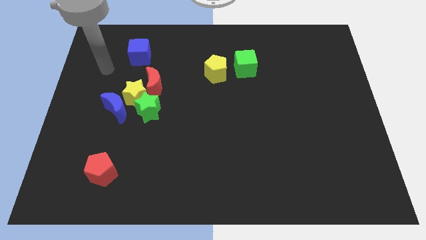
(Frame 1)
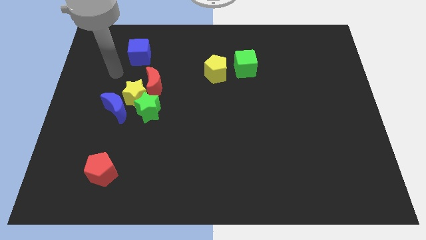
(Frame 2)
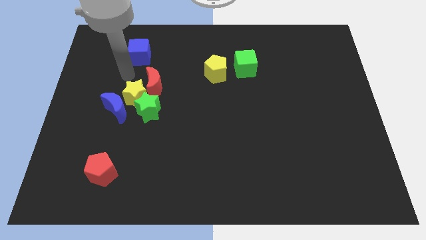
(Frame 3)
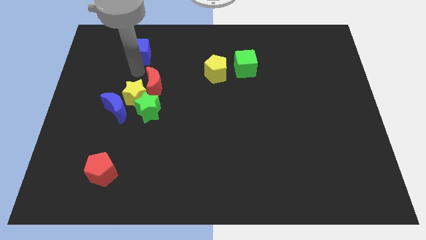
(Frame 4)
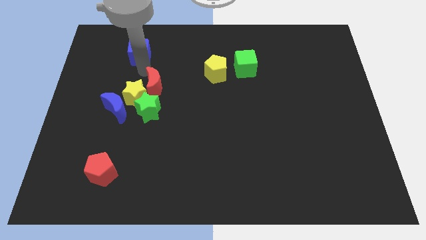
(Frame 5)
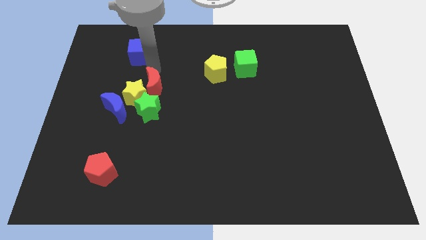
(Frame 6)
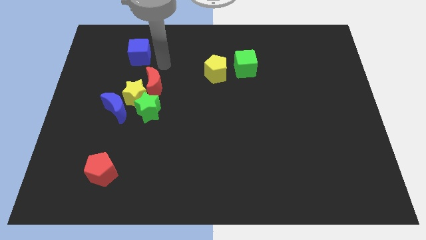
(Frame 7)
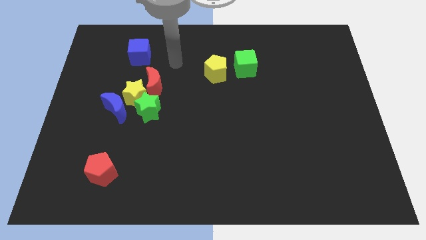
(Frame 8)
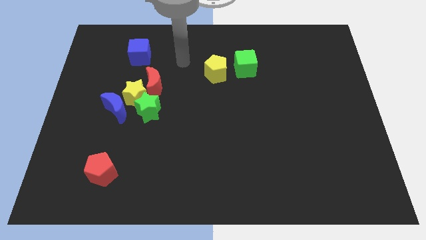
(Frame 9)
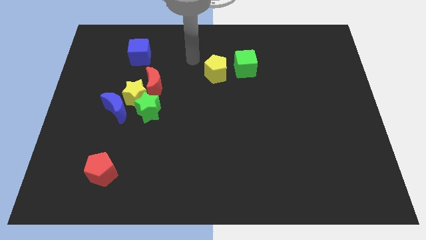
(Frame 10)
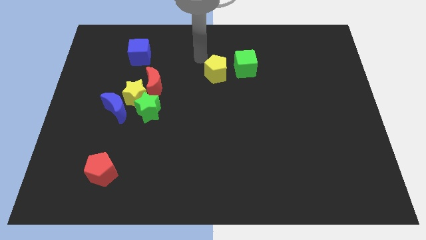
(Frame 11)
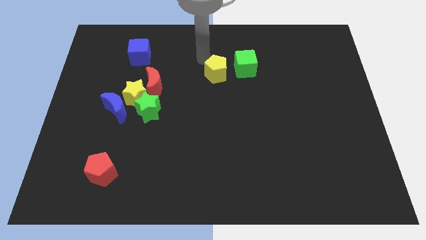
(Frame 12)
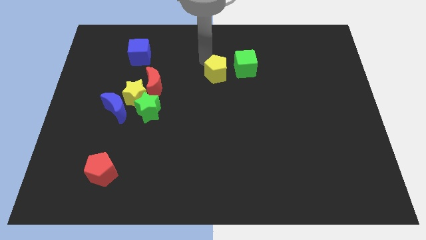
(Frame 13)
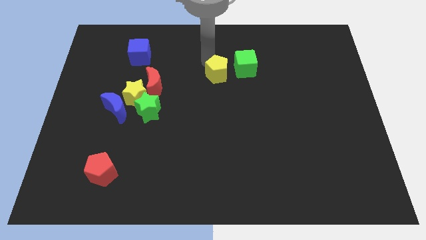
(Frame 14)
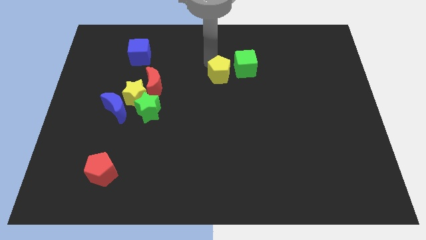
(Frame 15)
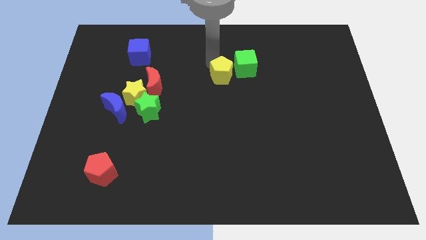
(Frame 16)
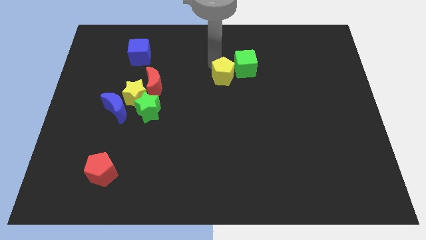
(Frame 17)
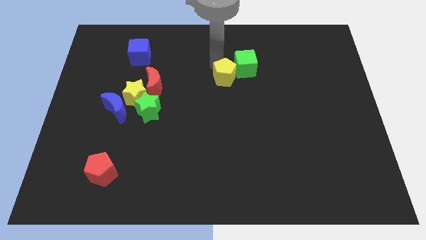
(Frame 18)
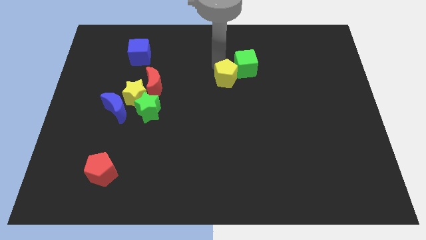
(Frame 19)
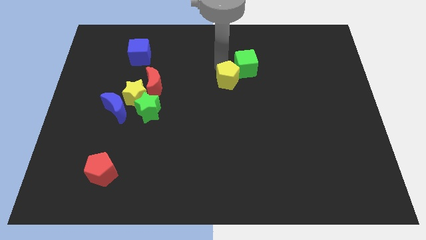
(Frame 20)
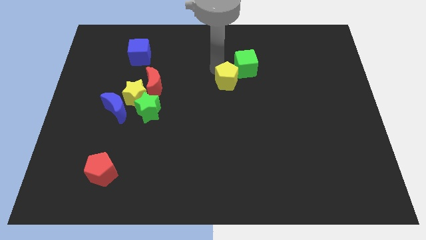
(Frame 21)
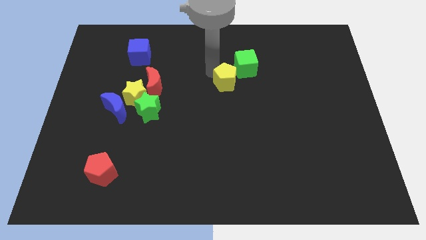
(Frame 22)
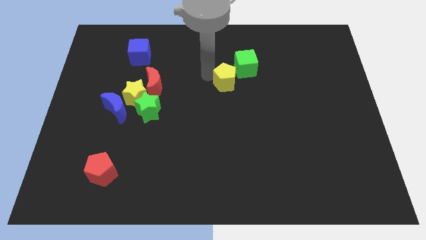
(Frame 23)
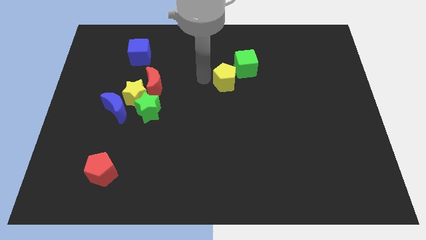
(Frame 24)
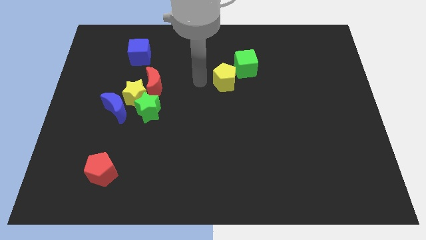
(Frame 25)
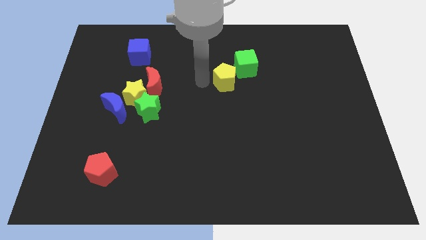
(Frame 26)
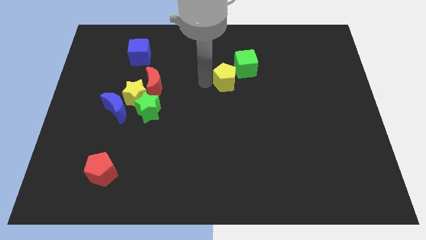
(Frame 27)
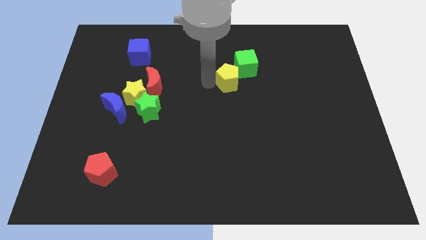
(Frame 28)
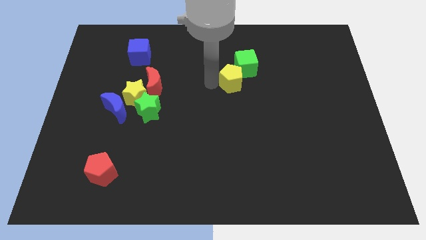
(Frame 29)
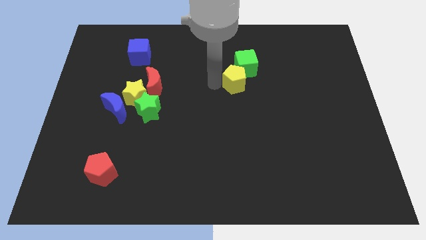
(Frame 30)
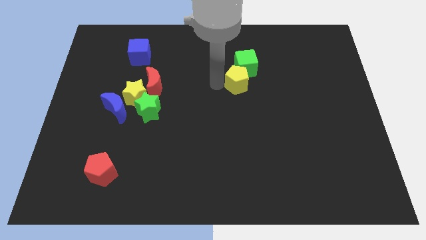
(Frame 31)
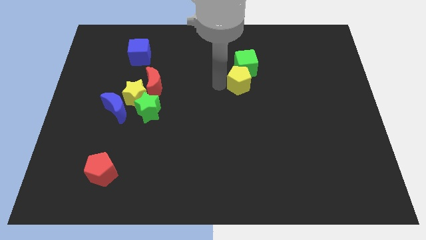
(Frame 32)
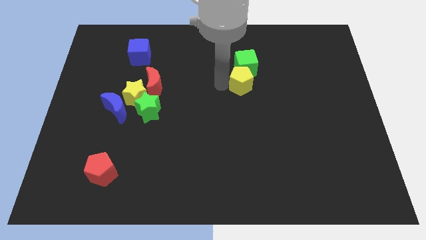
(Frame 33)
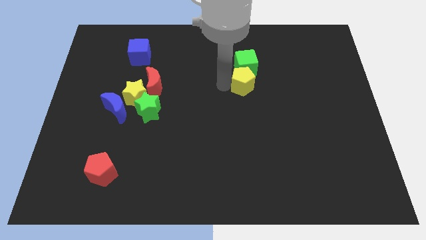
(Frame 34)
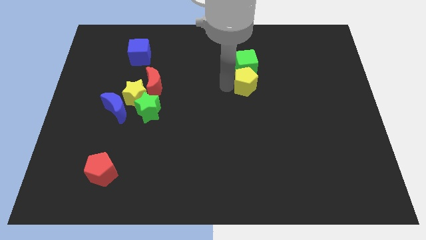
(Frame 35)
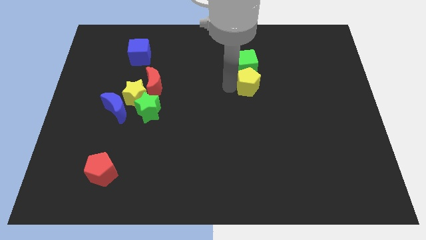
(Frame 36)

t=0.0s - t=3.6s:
slide the yellow pentagon to the right slightly

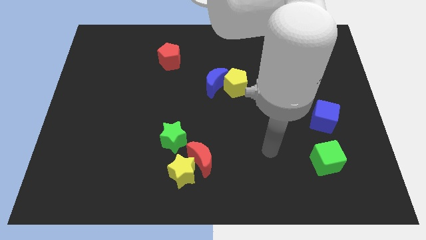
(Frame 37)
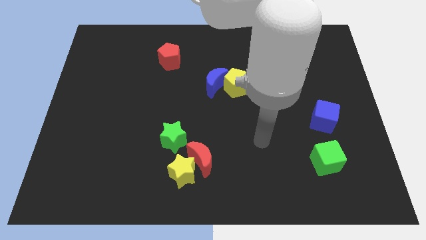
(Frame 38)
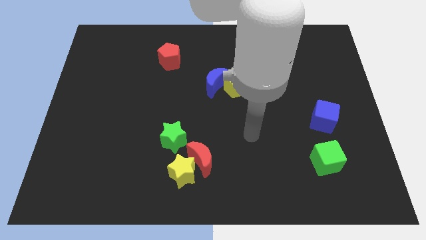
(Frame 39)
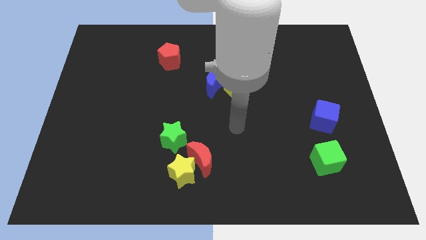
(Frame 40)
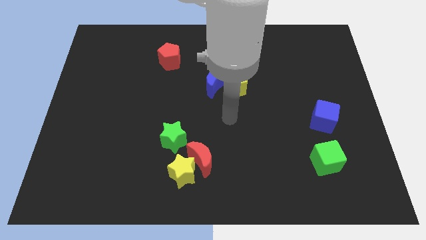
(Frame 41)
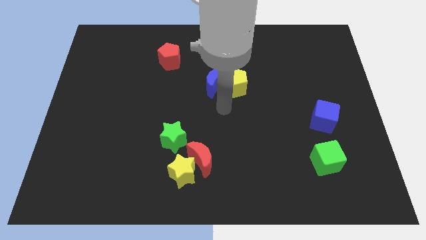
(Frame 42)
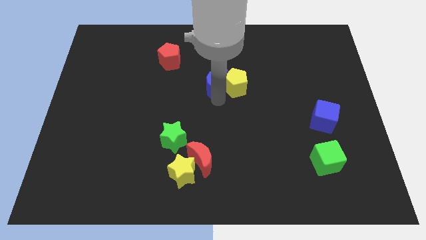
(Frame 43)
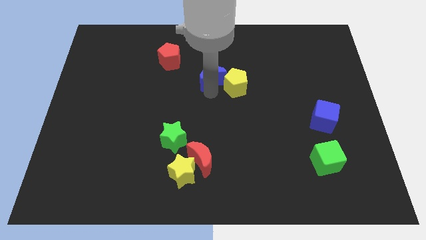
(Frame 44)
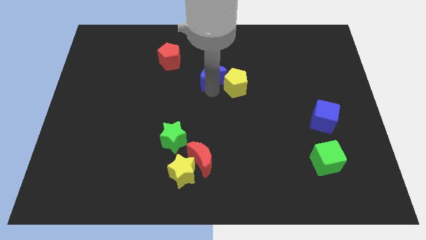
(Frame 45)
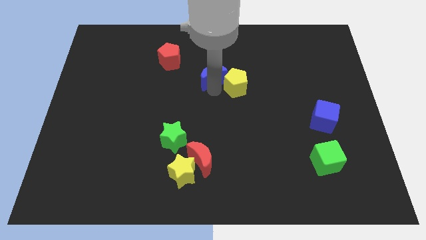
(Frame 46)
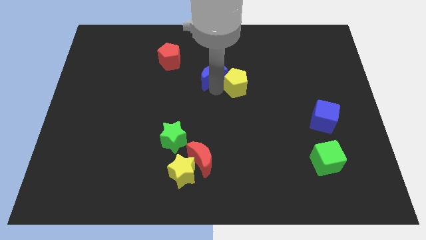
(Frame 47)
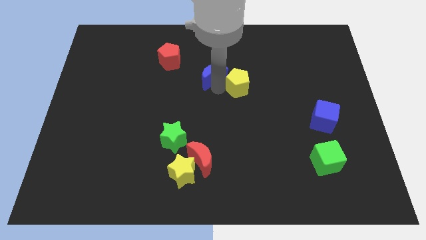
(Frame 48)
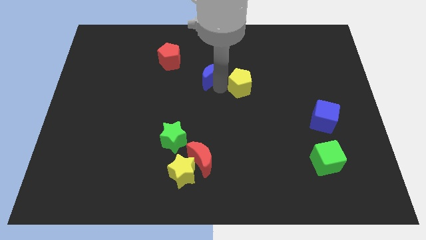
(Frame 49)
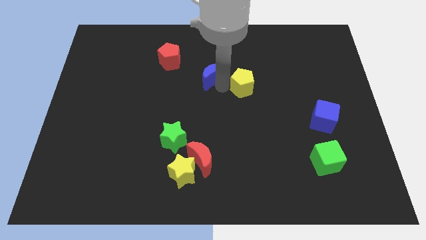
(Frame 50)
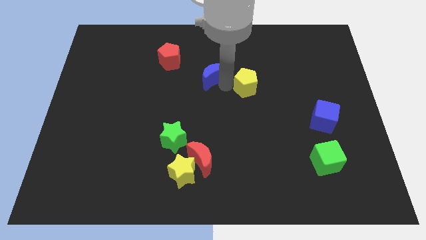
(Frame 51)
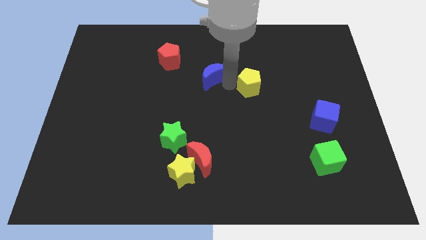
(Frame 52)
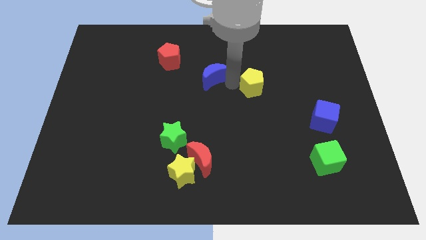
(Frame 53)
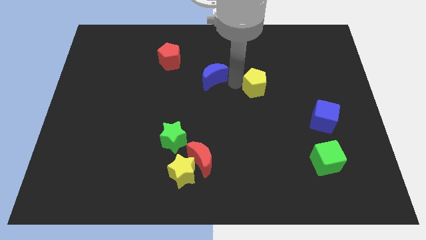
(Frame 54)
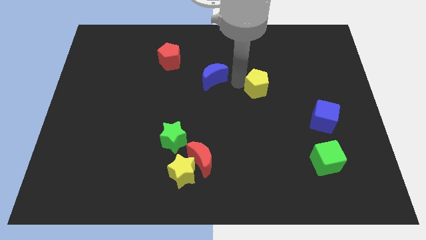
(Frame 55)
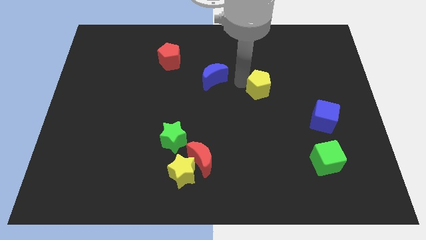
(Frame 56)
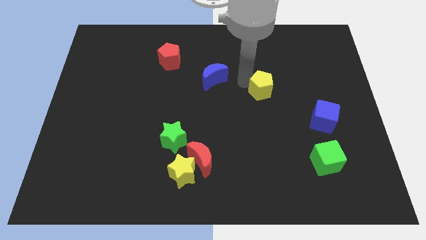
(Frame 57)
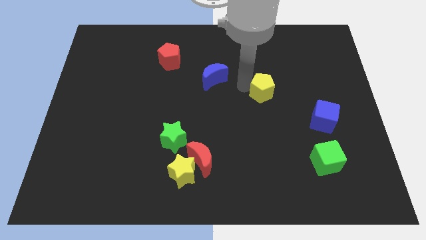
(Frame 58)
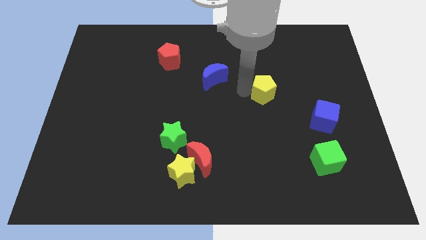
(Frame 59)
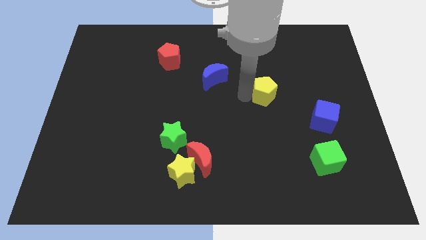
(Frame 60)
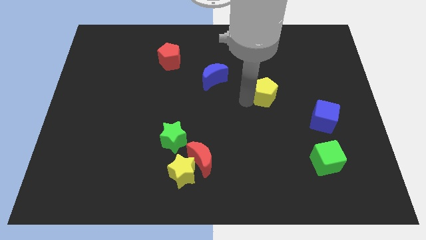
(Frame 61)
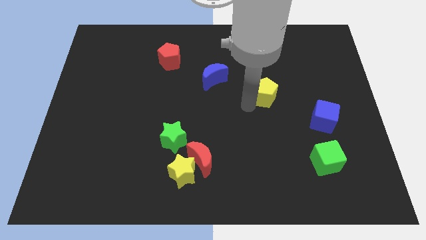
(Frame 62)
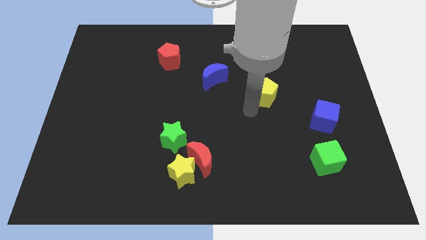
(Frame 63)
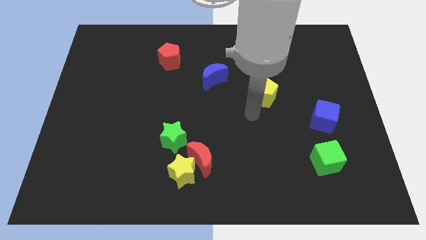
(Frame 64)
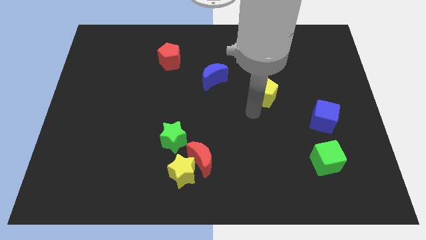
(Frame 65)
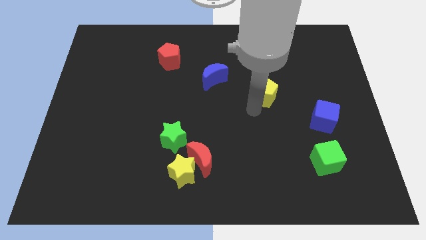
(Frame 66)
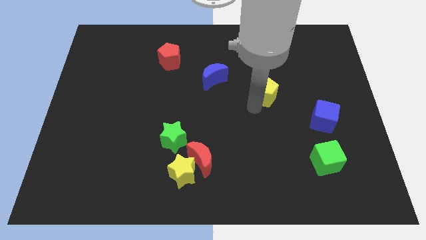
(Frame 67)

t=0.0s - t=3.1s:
push the yellow pentagon a little to the right

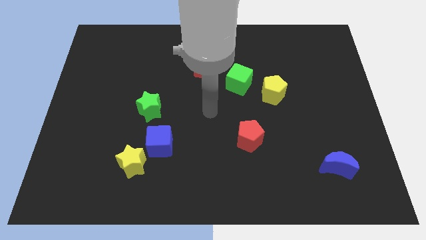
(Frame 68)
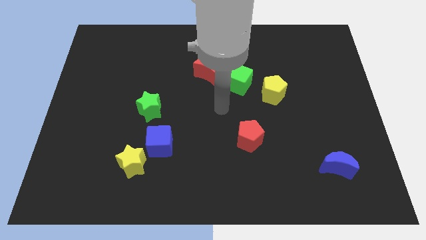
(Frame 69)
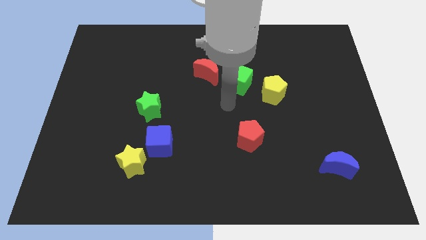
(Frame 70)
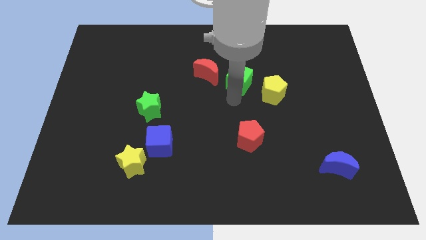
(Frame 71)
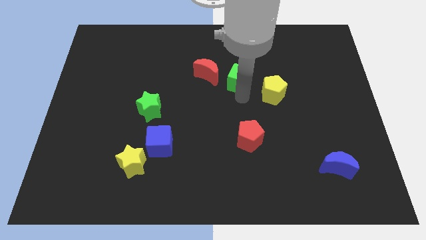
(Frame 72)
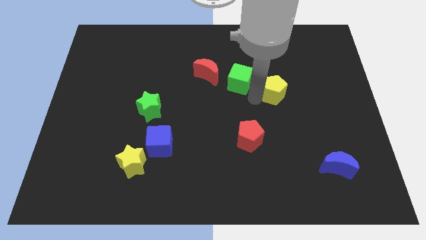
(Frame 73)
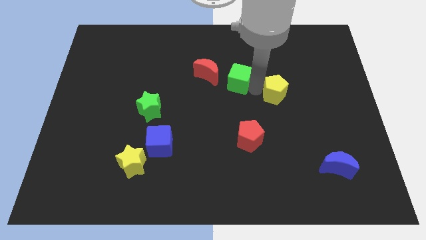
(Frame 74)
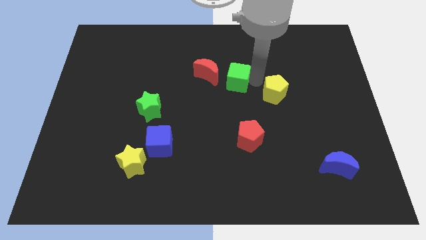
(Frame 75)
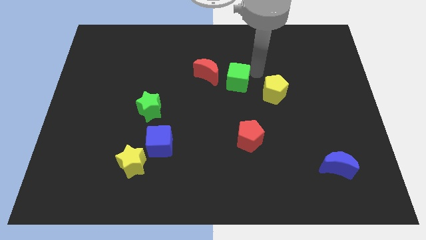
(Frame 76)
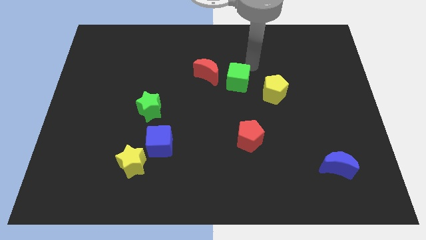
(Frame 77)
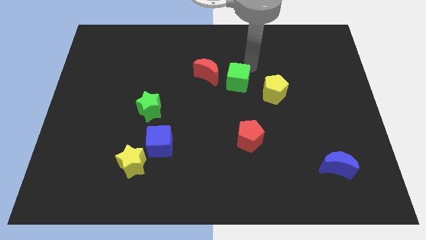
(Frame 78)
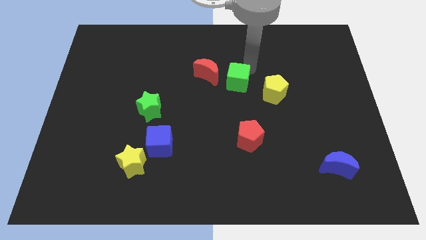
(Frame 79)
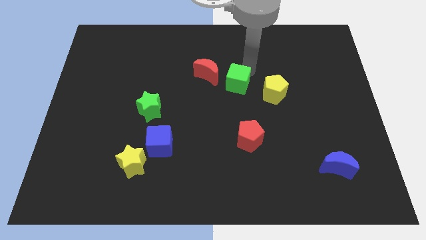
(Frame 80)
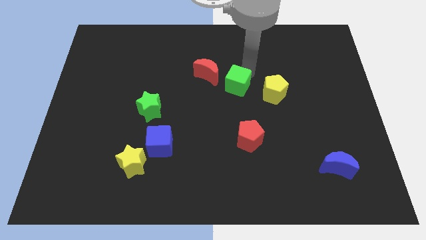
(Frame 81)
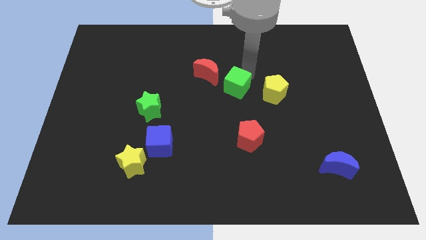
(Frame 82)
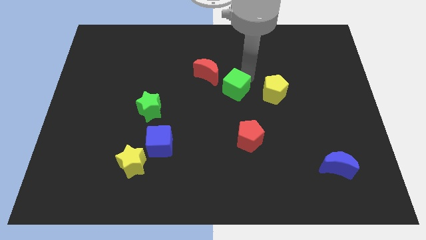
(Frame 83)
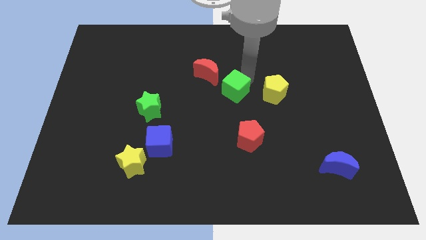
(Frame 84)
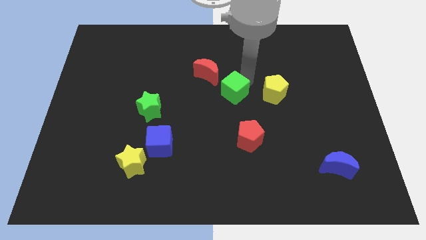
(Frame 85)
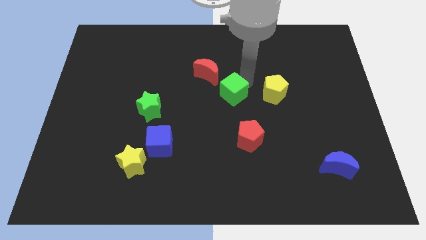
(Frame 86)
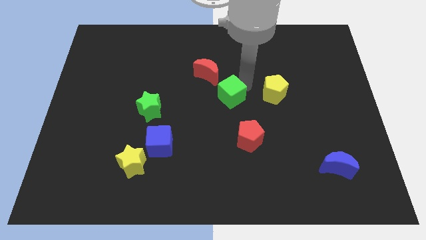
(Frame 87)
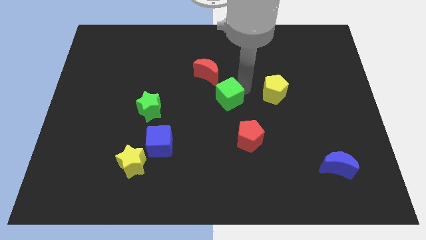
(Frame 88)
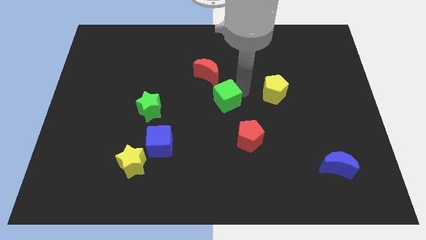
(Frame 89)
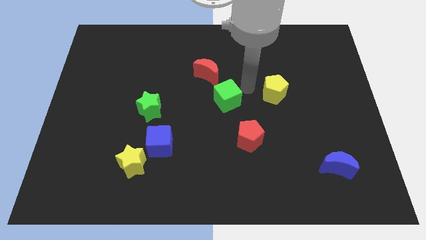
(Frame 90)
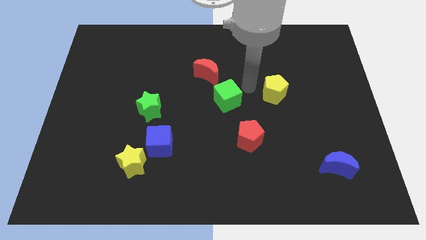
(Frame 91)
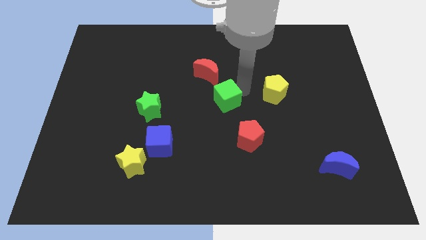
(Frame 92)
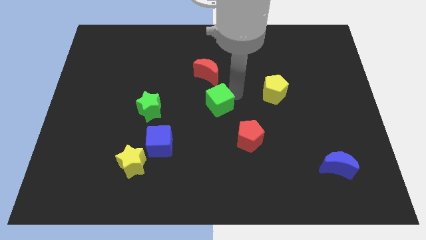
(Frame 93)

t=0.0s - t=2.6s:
slightly push the green cube down and left
